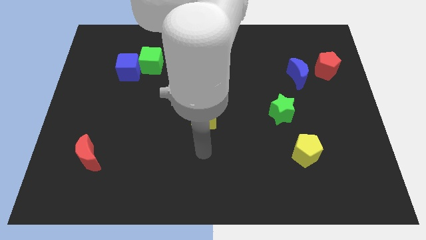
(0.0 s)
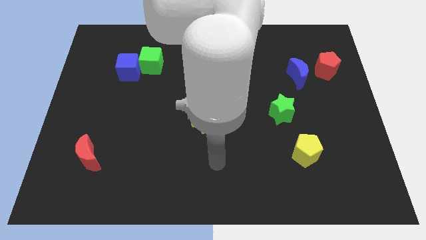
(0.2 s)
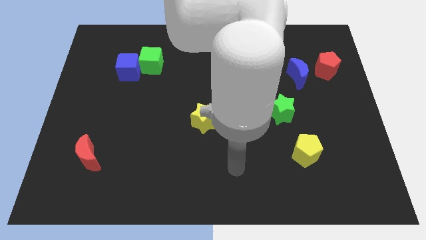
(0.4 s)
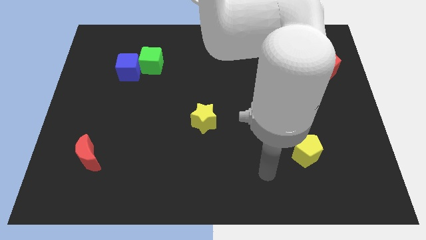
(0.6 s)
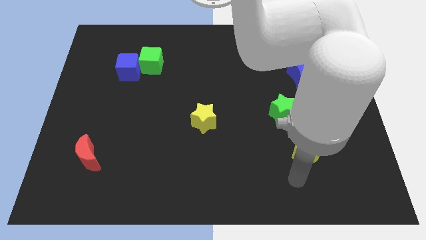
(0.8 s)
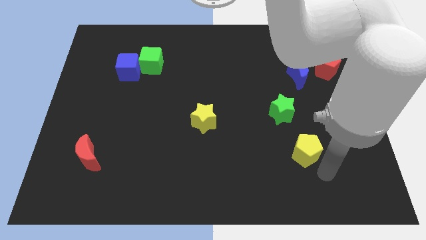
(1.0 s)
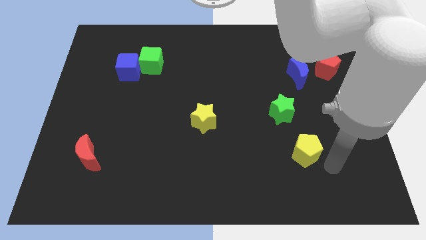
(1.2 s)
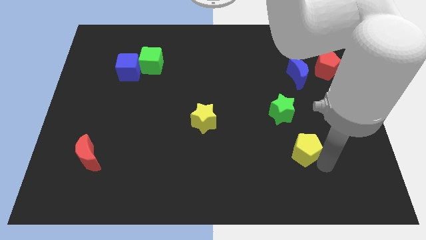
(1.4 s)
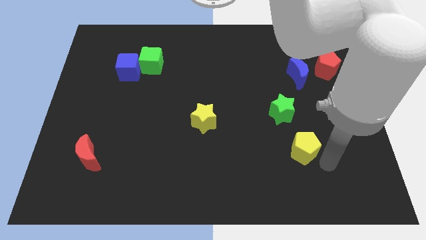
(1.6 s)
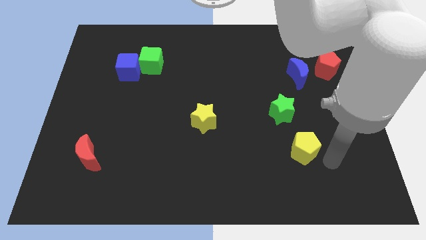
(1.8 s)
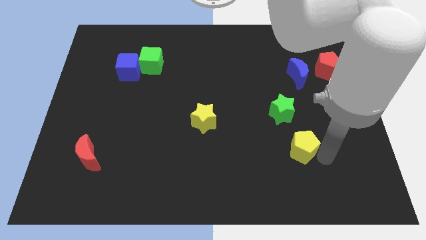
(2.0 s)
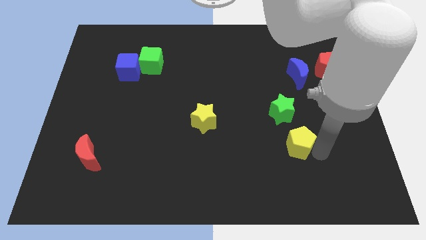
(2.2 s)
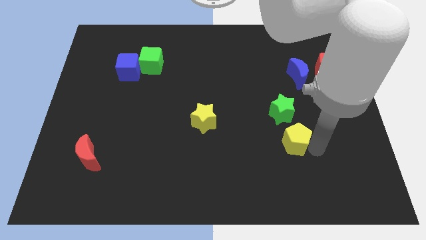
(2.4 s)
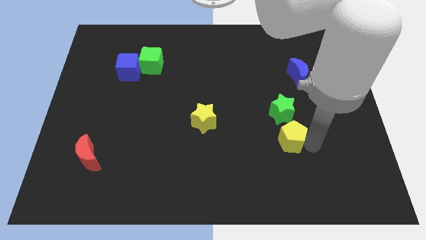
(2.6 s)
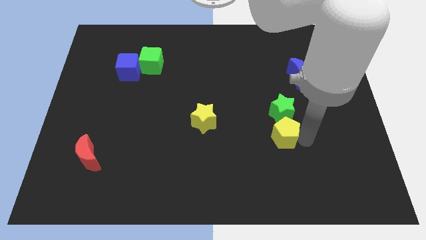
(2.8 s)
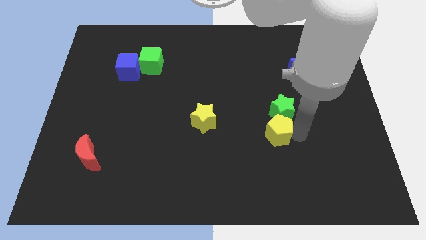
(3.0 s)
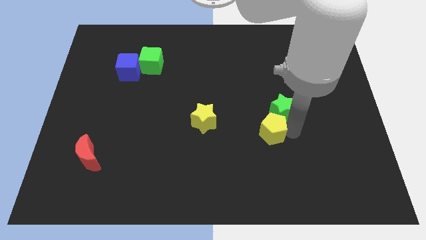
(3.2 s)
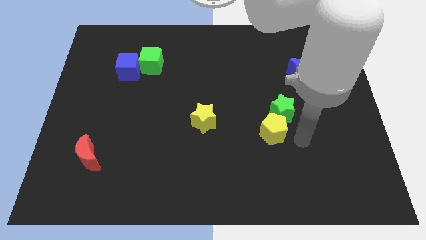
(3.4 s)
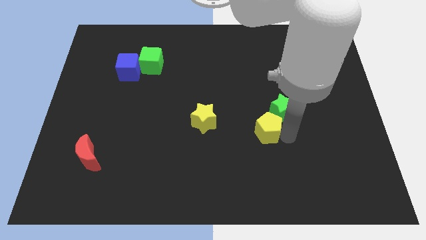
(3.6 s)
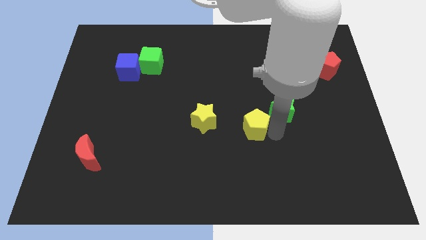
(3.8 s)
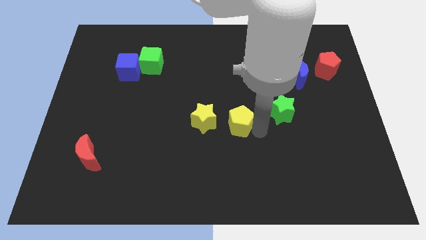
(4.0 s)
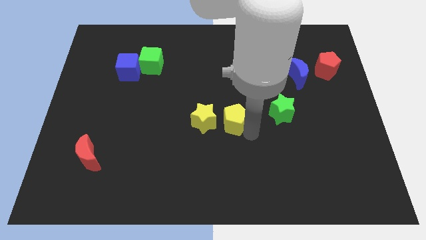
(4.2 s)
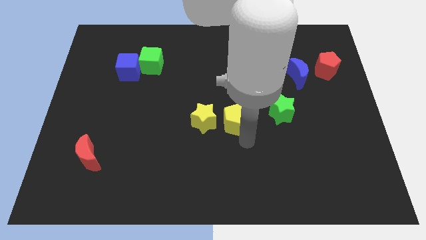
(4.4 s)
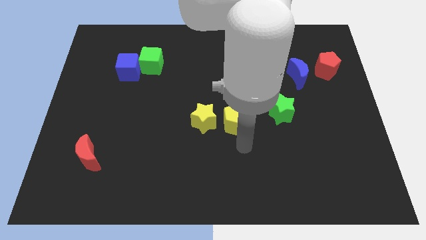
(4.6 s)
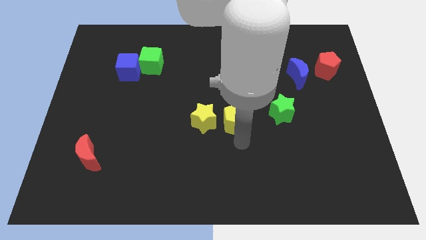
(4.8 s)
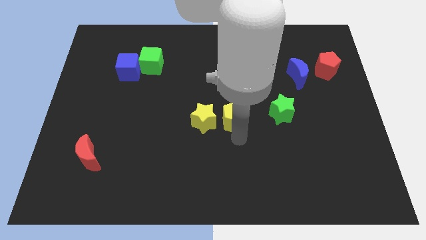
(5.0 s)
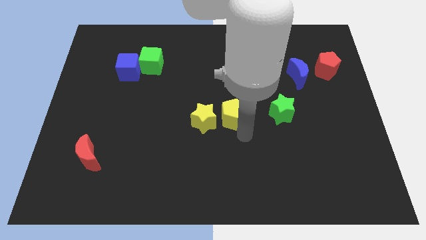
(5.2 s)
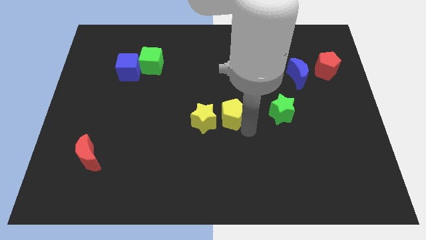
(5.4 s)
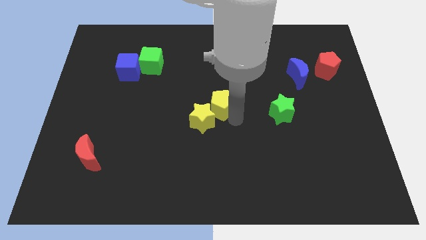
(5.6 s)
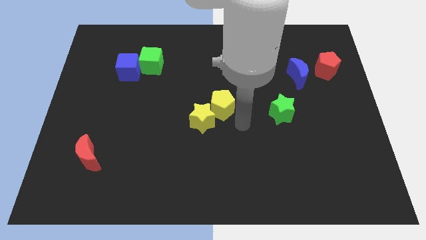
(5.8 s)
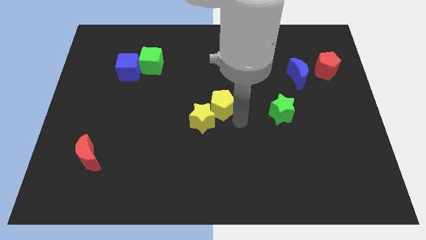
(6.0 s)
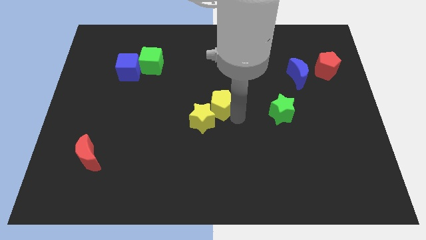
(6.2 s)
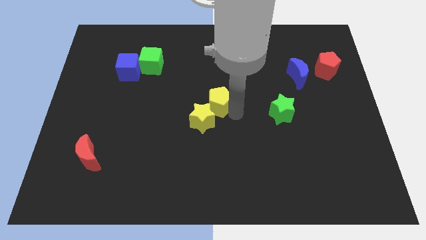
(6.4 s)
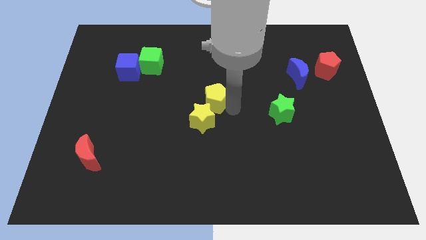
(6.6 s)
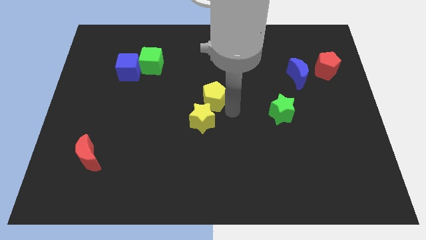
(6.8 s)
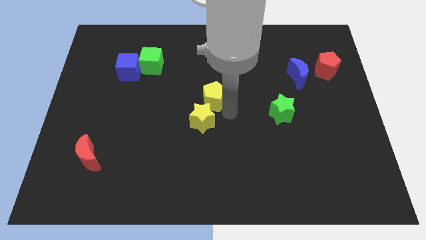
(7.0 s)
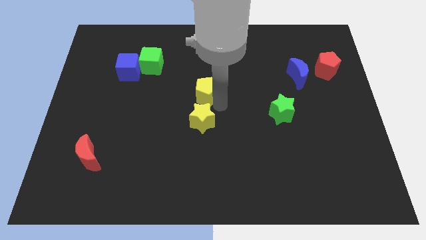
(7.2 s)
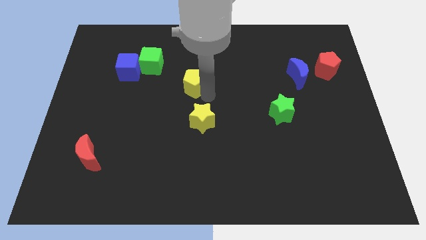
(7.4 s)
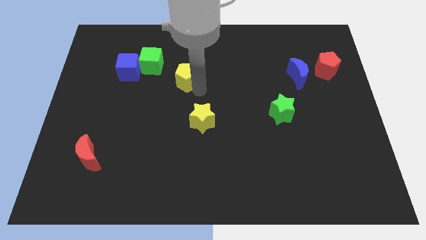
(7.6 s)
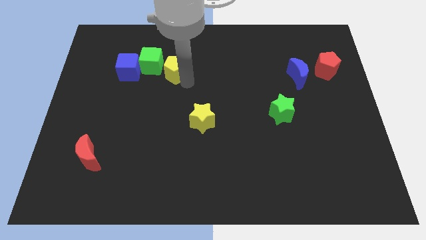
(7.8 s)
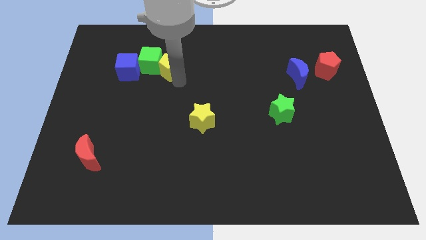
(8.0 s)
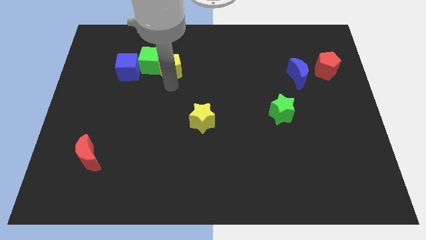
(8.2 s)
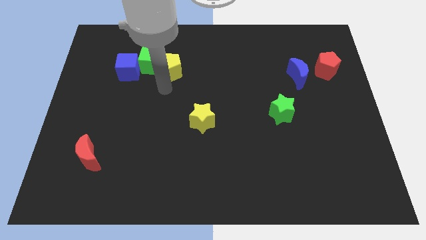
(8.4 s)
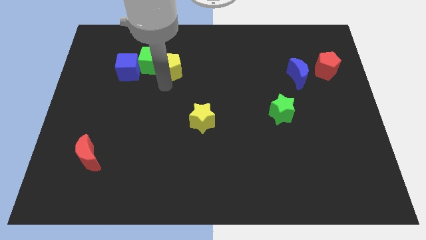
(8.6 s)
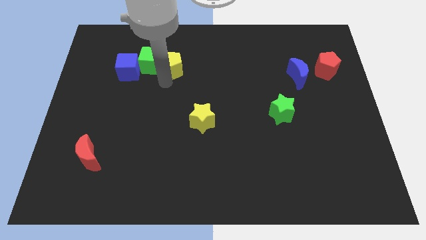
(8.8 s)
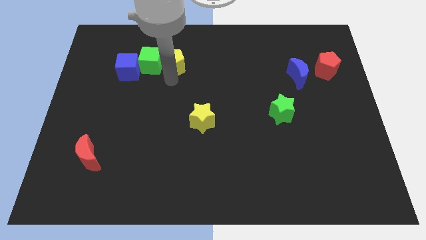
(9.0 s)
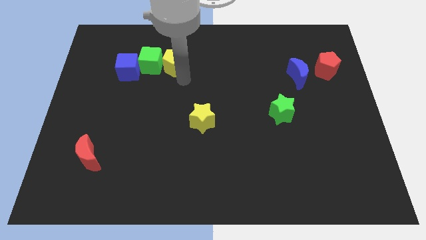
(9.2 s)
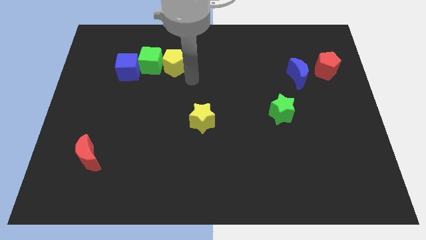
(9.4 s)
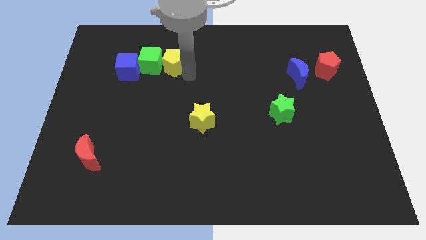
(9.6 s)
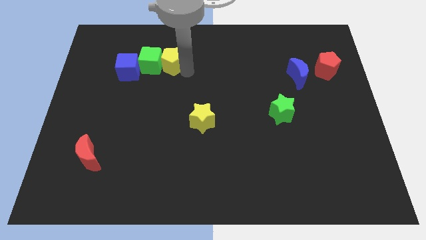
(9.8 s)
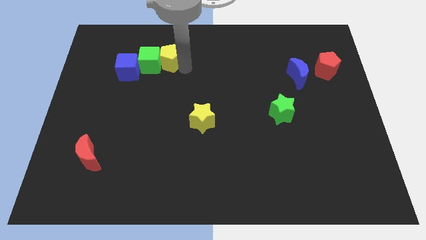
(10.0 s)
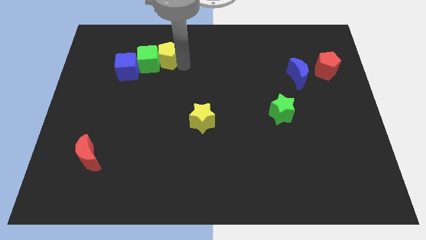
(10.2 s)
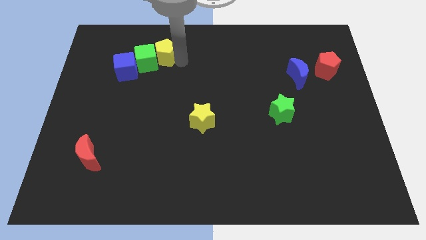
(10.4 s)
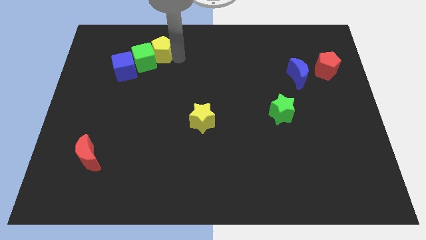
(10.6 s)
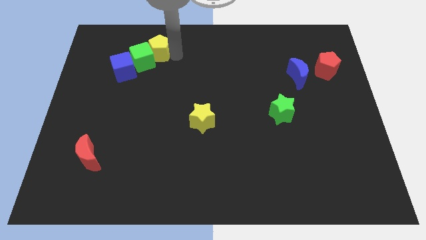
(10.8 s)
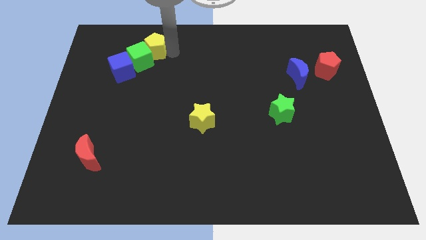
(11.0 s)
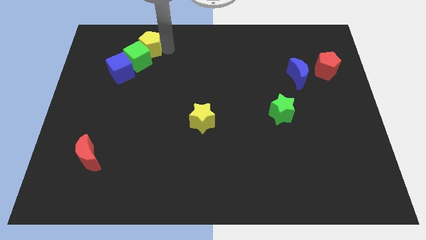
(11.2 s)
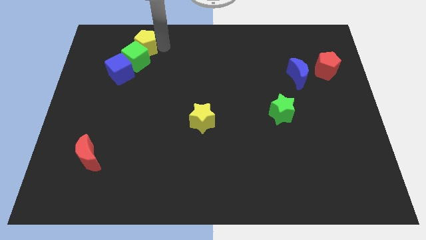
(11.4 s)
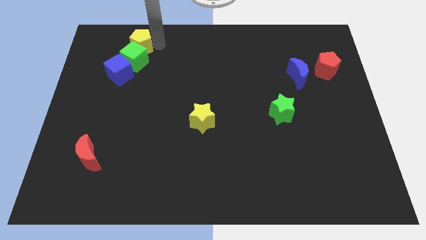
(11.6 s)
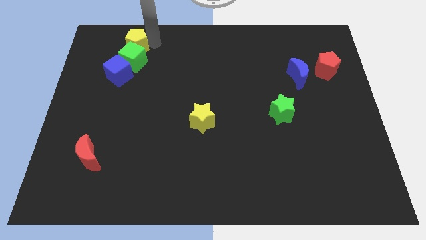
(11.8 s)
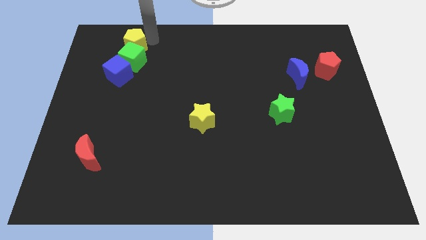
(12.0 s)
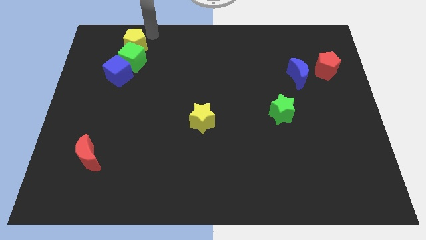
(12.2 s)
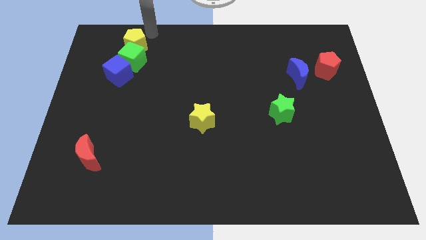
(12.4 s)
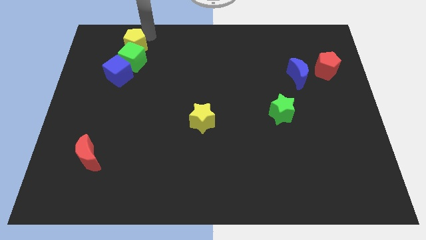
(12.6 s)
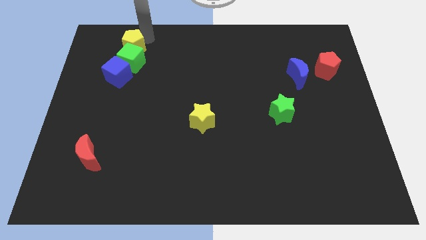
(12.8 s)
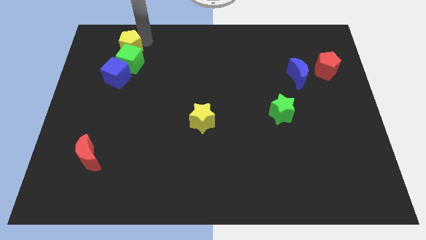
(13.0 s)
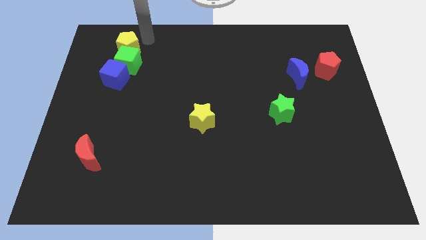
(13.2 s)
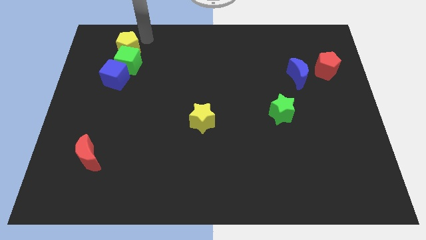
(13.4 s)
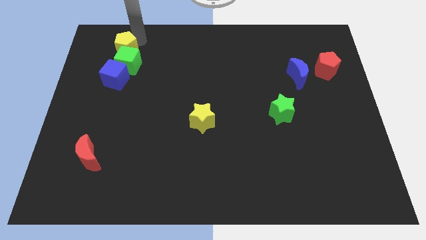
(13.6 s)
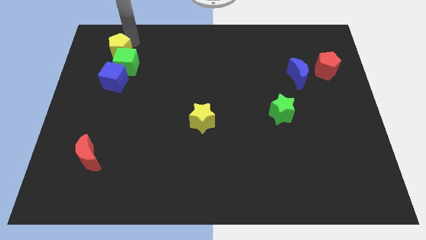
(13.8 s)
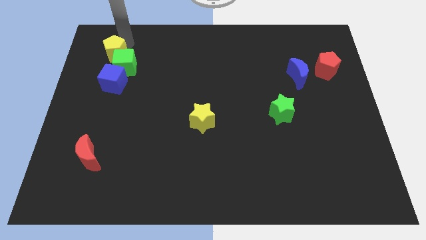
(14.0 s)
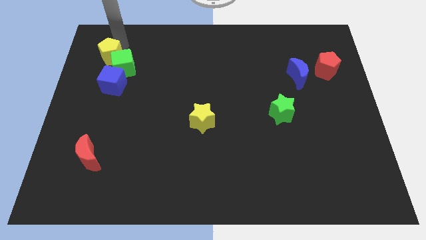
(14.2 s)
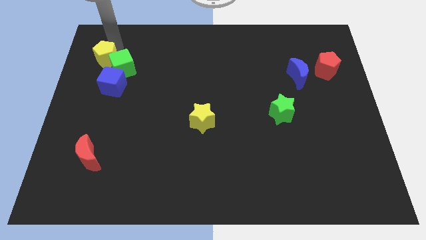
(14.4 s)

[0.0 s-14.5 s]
push the yellow pentagon diagonally up and to the left of the blue cube
